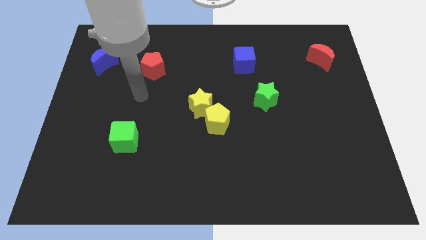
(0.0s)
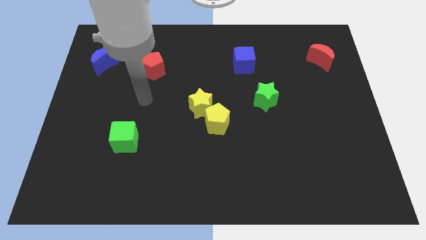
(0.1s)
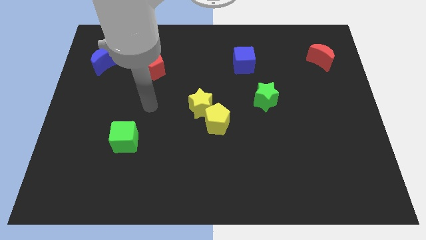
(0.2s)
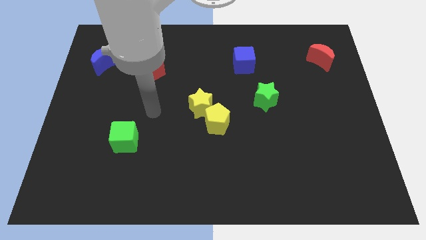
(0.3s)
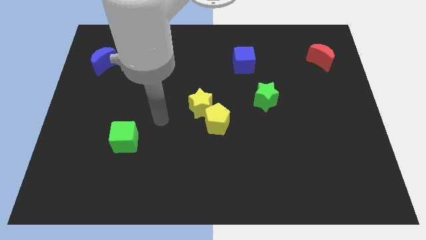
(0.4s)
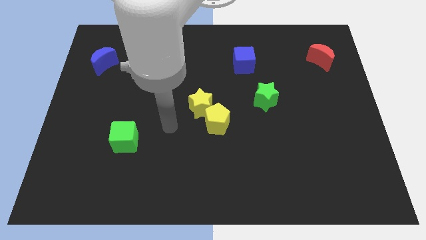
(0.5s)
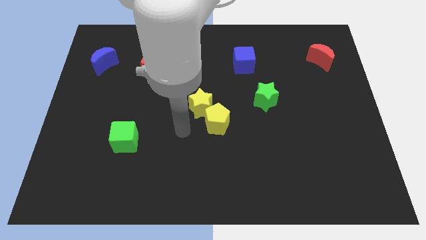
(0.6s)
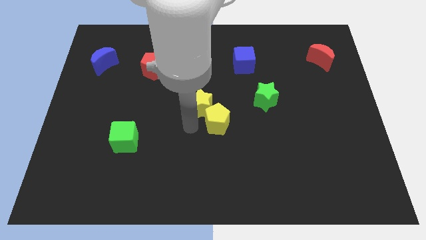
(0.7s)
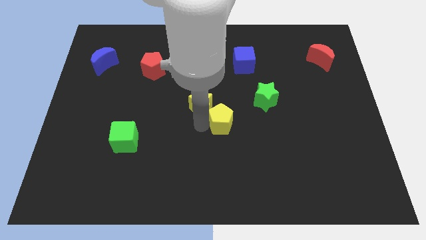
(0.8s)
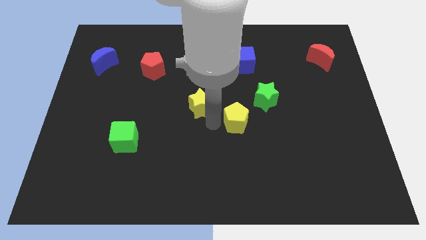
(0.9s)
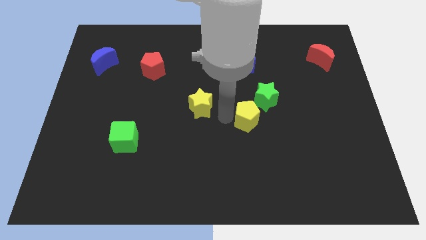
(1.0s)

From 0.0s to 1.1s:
move the yellow star away from the yellow pentagon

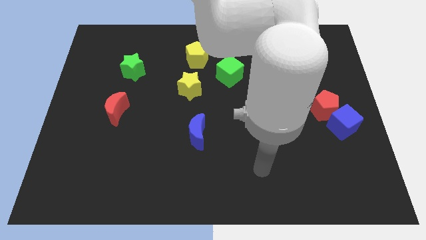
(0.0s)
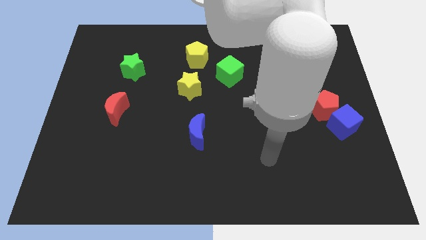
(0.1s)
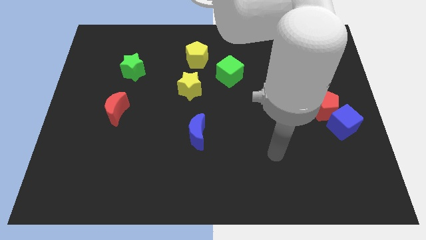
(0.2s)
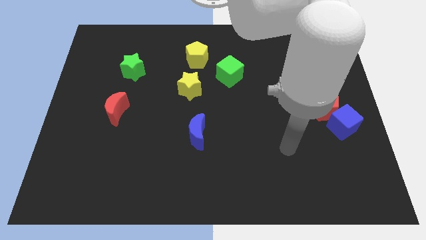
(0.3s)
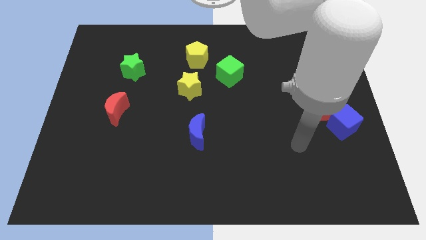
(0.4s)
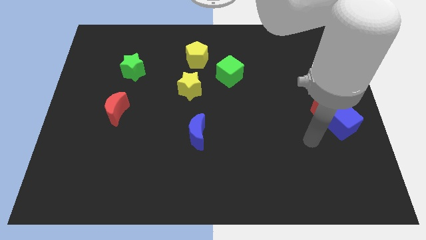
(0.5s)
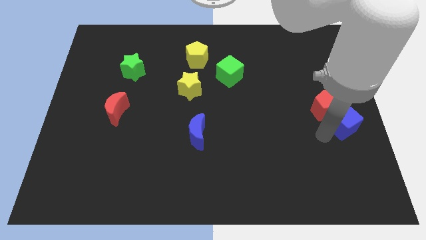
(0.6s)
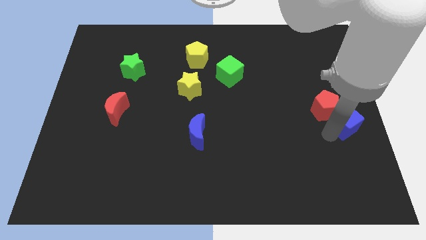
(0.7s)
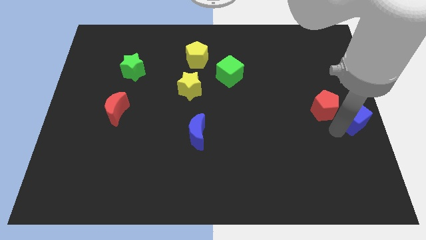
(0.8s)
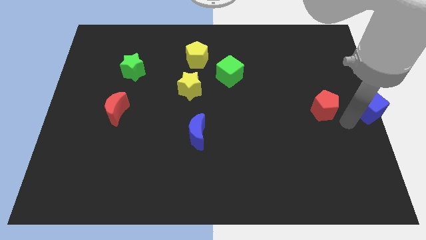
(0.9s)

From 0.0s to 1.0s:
separate the red pentagon from the blue cube

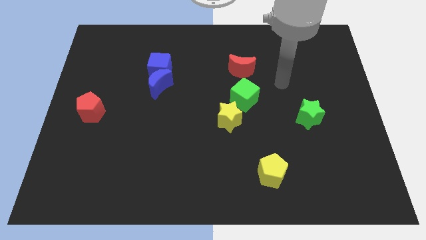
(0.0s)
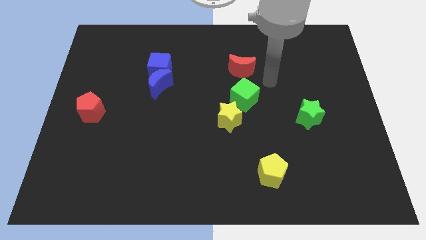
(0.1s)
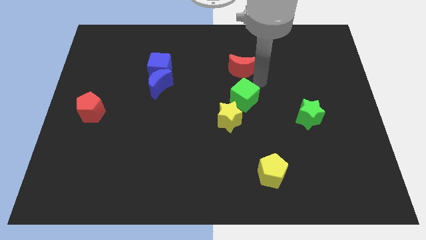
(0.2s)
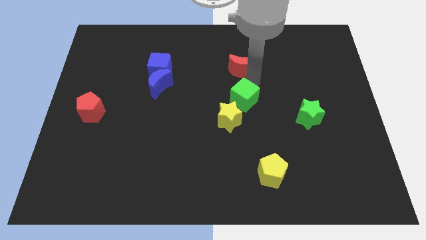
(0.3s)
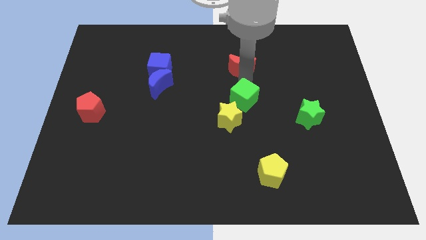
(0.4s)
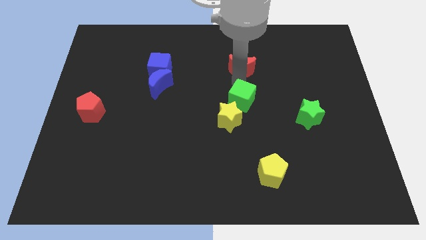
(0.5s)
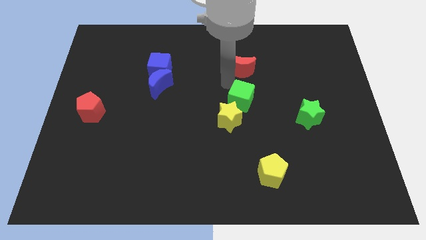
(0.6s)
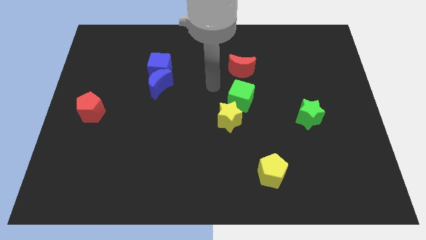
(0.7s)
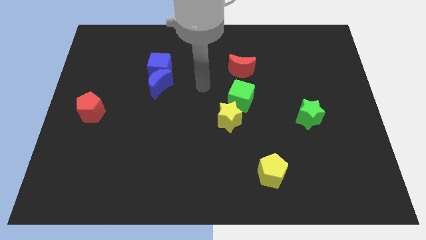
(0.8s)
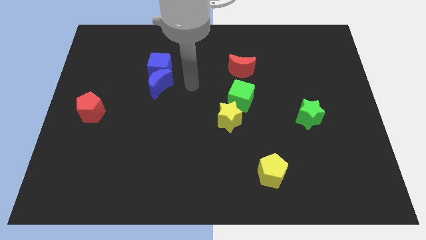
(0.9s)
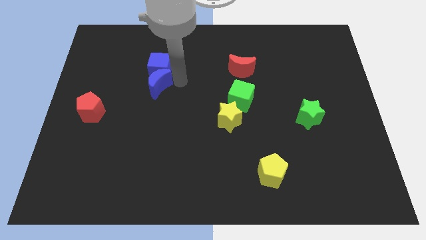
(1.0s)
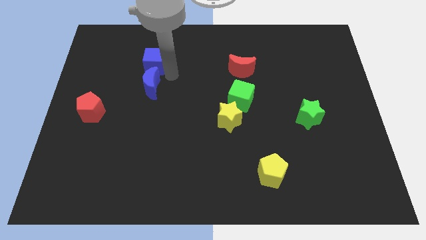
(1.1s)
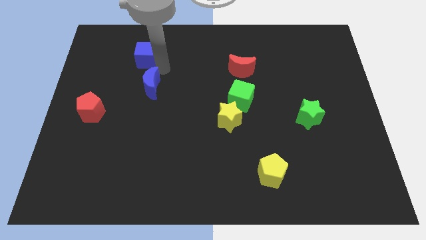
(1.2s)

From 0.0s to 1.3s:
separate the blue moon from the blue cube

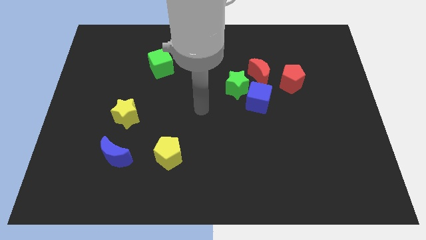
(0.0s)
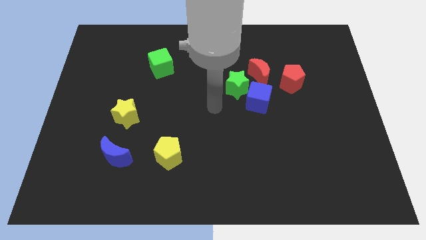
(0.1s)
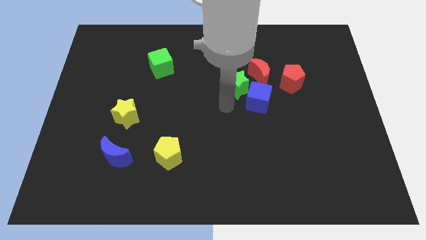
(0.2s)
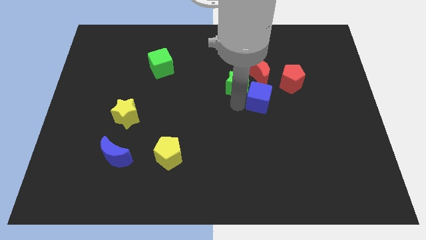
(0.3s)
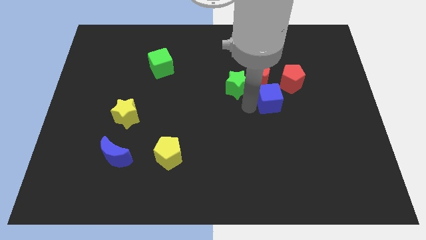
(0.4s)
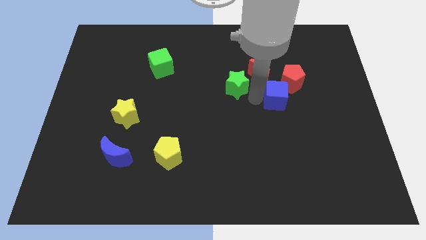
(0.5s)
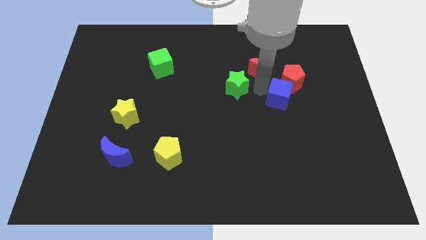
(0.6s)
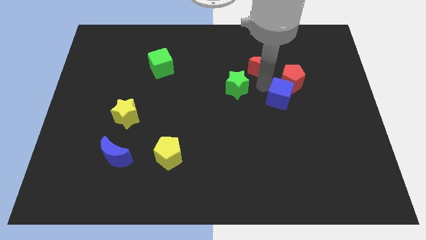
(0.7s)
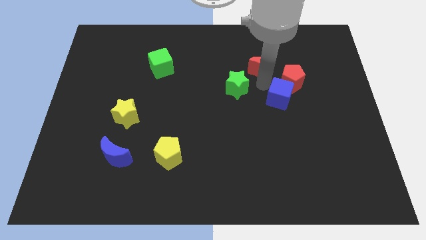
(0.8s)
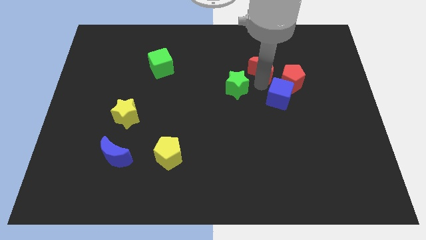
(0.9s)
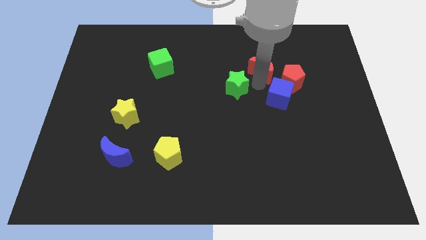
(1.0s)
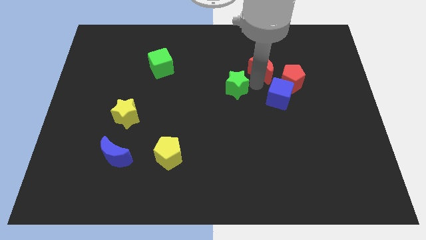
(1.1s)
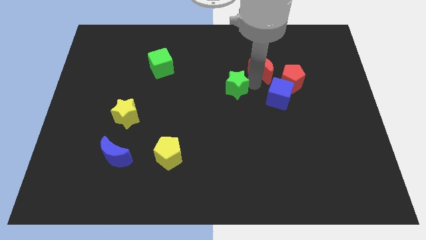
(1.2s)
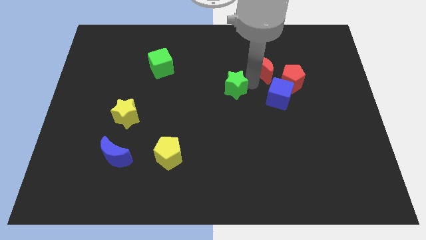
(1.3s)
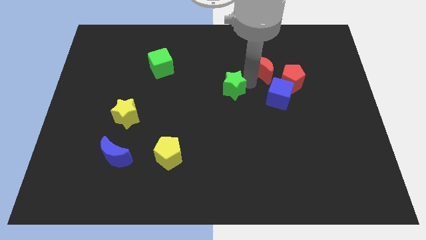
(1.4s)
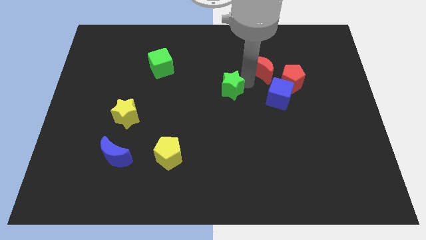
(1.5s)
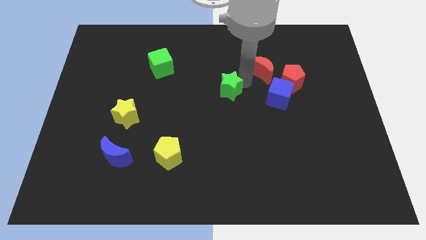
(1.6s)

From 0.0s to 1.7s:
move the green star away from the blue cube and red moon

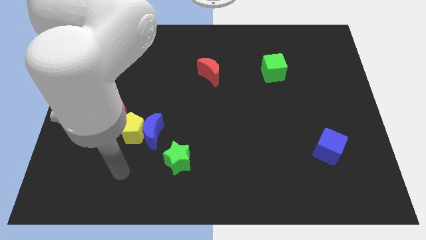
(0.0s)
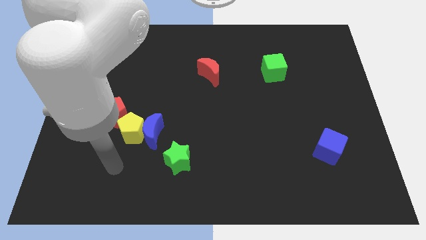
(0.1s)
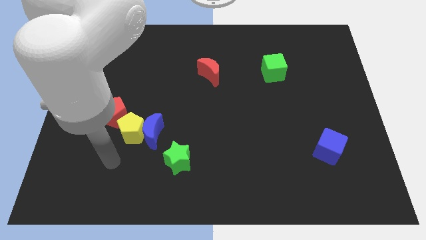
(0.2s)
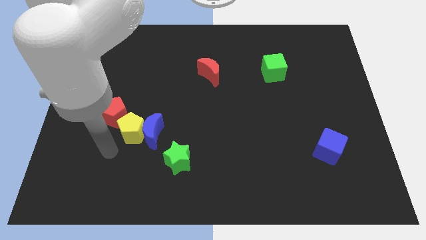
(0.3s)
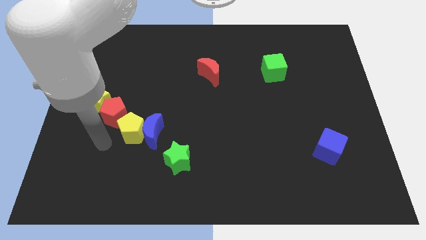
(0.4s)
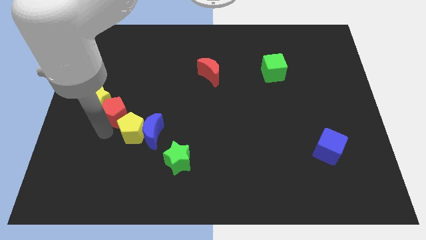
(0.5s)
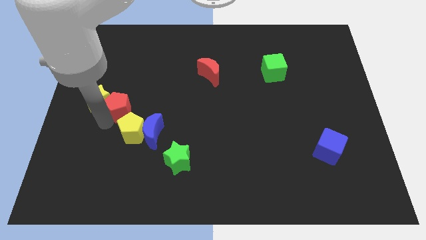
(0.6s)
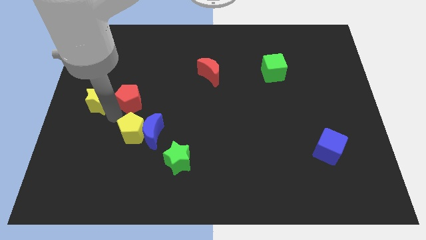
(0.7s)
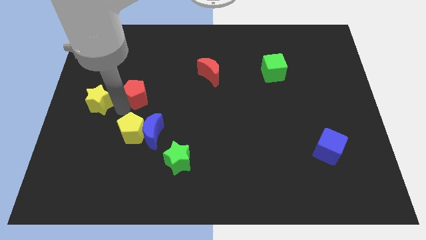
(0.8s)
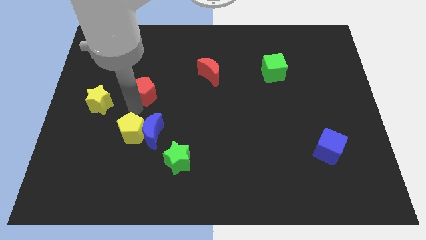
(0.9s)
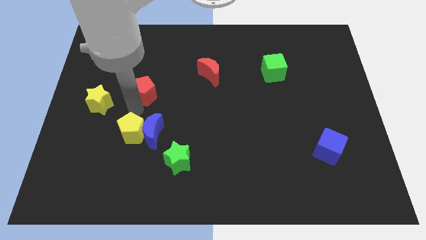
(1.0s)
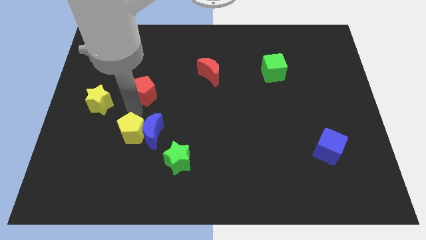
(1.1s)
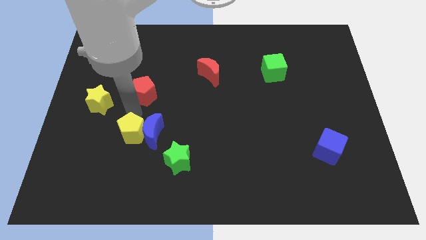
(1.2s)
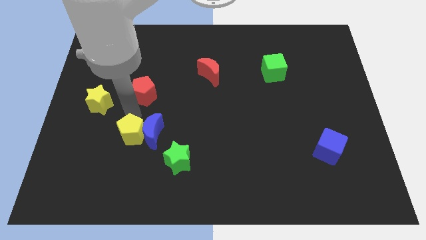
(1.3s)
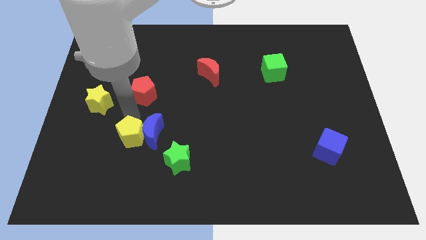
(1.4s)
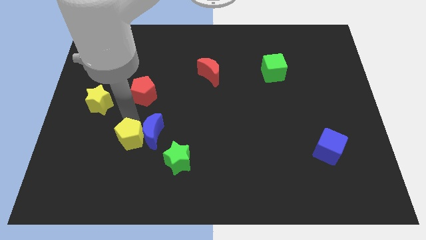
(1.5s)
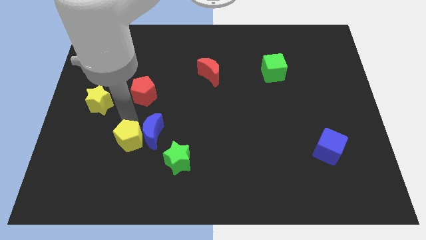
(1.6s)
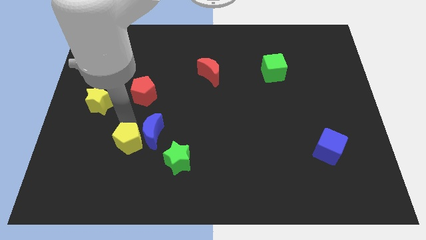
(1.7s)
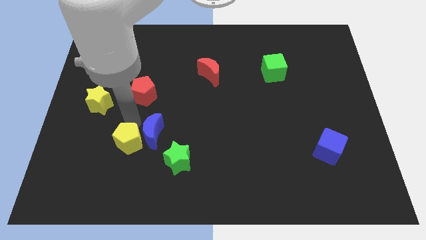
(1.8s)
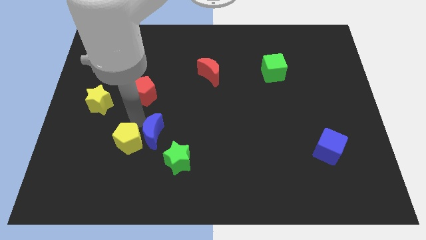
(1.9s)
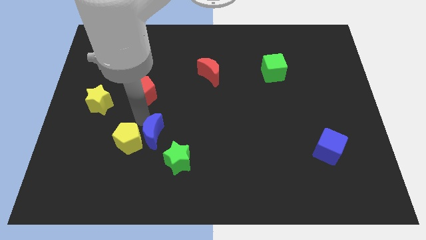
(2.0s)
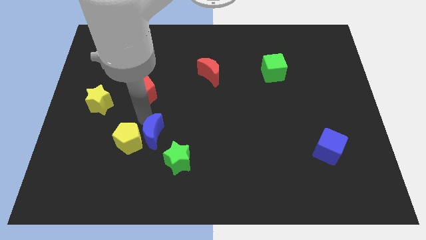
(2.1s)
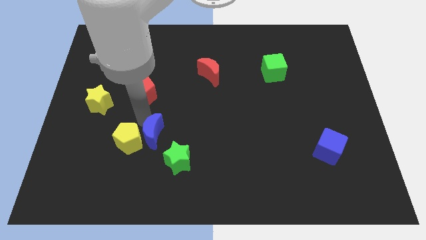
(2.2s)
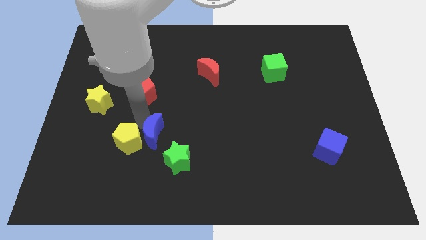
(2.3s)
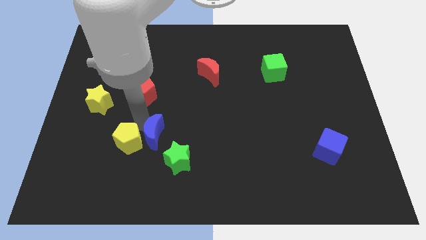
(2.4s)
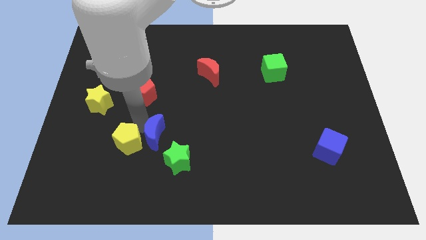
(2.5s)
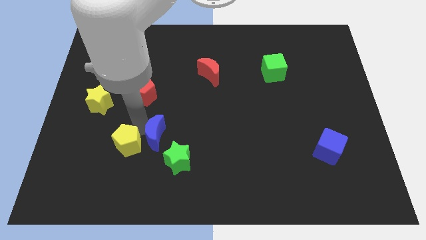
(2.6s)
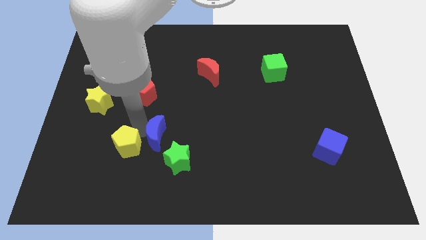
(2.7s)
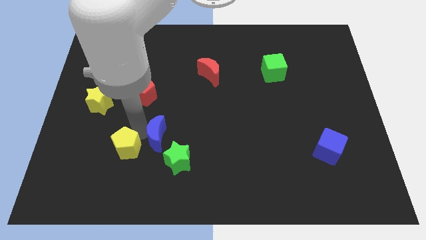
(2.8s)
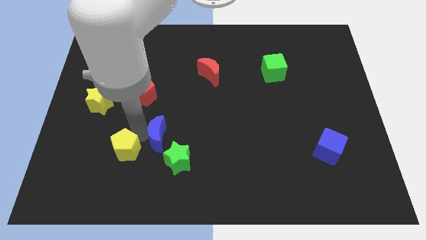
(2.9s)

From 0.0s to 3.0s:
separate the yellow pentagon from the blue moon and red pentagon

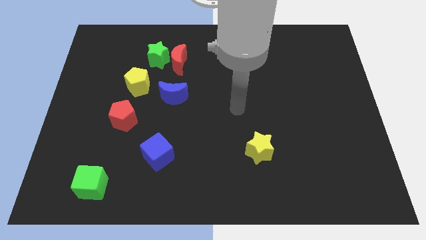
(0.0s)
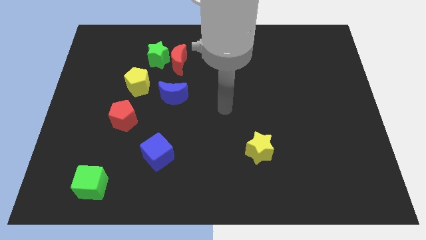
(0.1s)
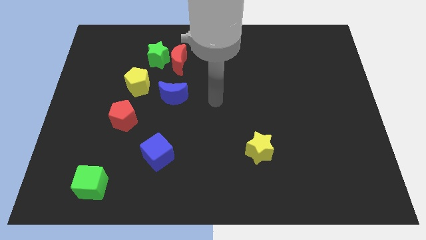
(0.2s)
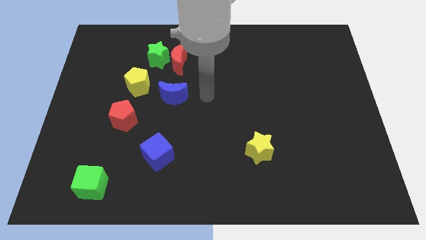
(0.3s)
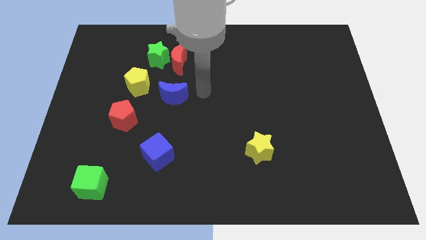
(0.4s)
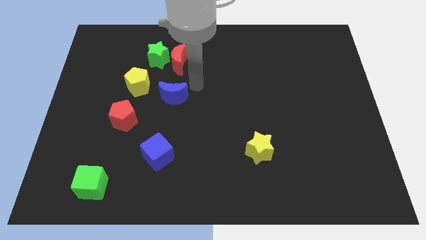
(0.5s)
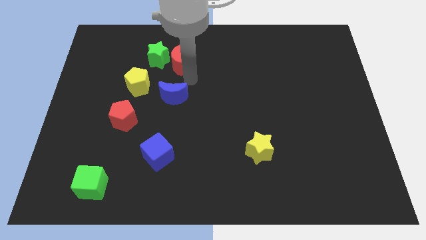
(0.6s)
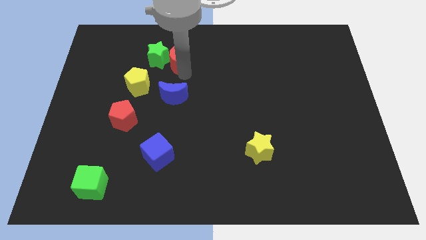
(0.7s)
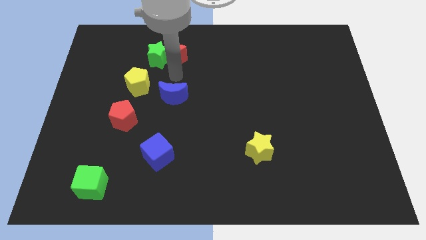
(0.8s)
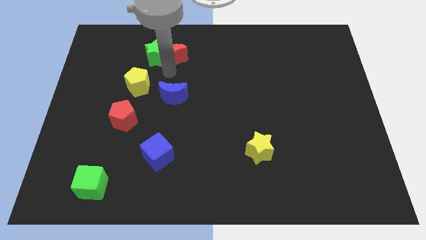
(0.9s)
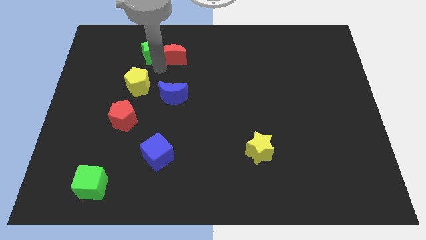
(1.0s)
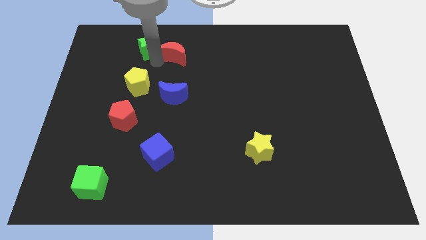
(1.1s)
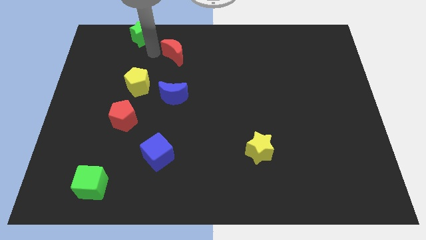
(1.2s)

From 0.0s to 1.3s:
pull the red moon apart from the green star
